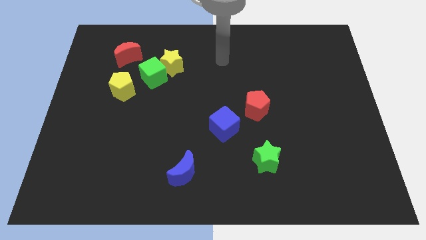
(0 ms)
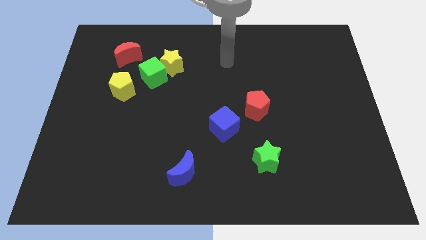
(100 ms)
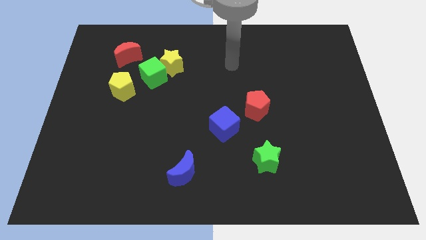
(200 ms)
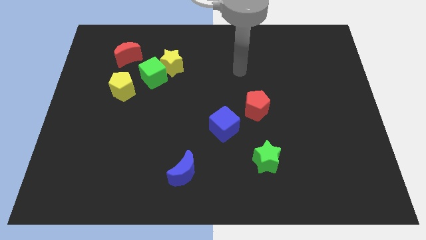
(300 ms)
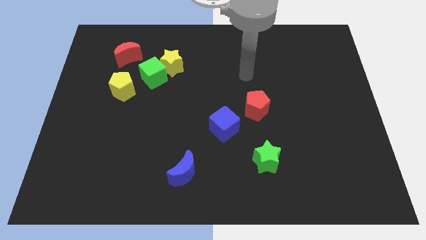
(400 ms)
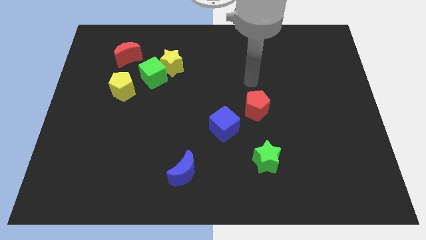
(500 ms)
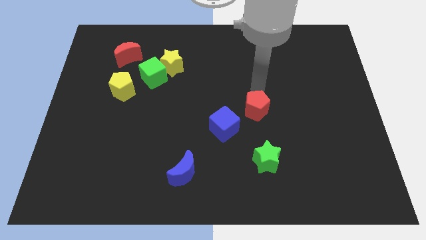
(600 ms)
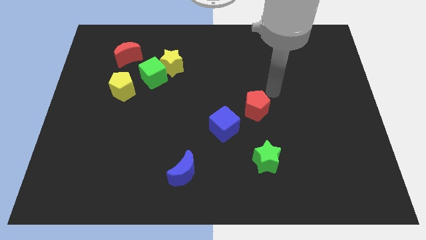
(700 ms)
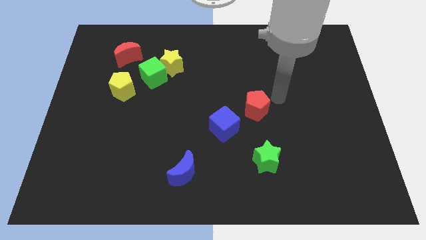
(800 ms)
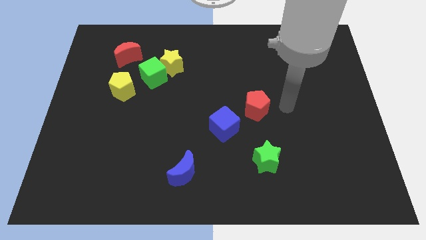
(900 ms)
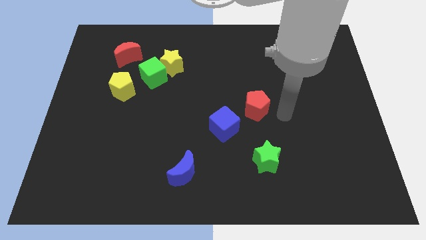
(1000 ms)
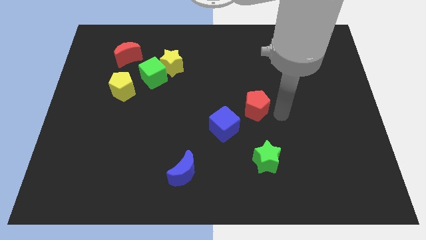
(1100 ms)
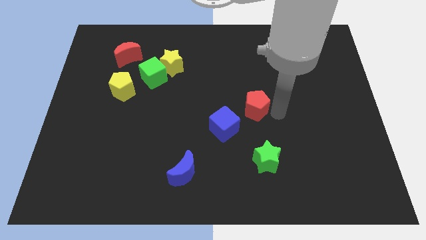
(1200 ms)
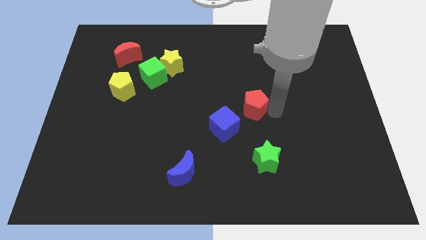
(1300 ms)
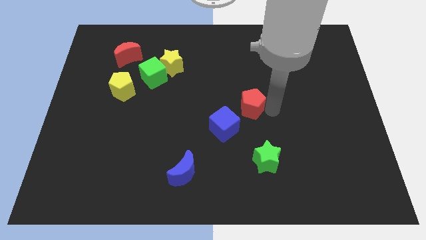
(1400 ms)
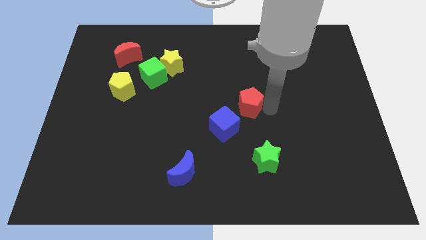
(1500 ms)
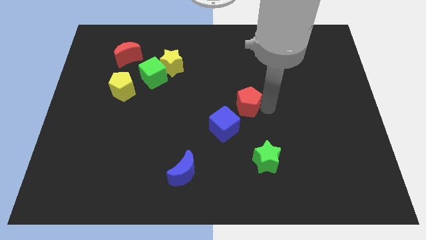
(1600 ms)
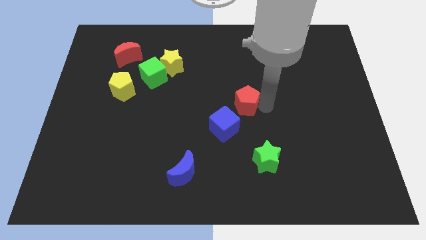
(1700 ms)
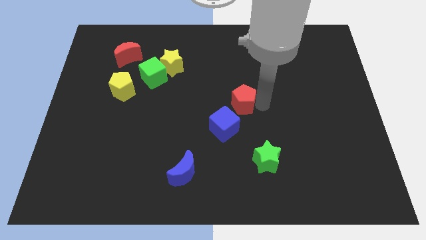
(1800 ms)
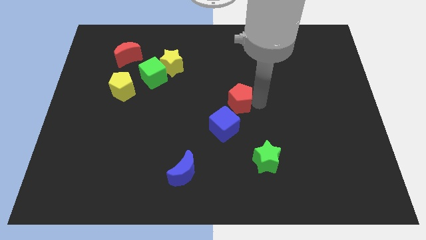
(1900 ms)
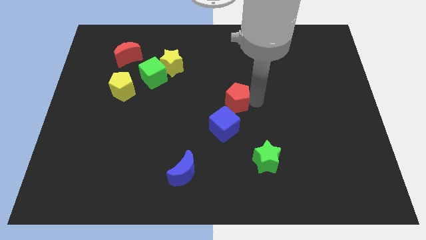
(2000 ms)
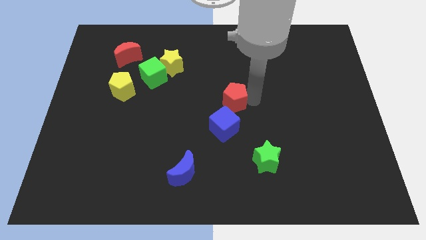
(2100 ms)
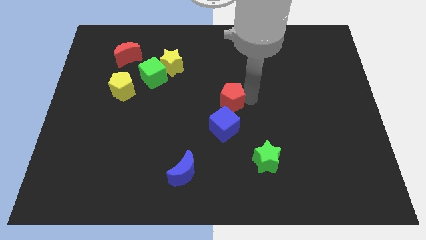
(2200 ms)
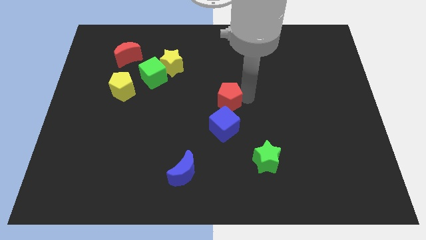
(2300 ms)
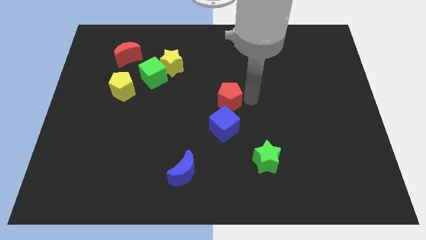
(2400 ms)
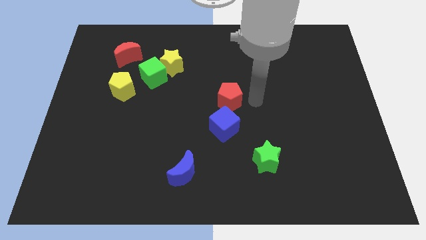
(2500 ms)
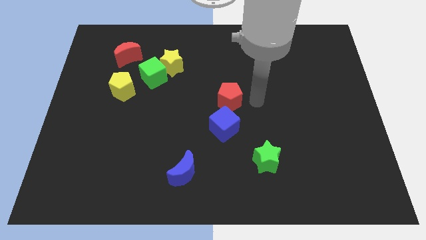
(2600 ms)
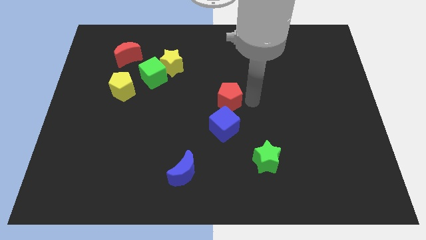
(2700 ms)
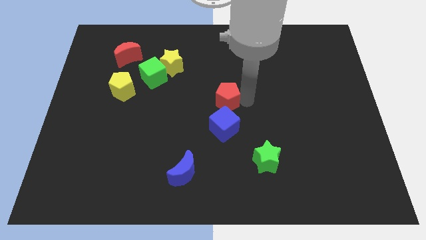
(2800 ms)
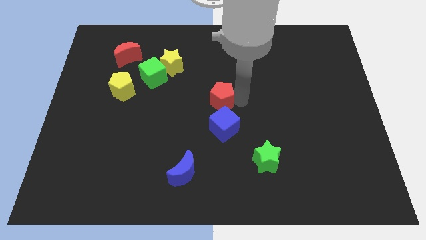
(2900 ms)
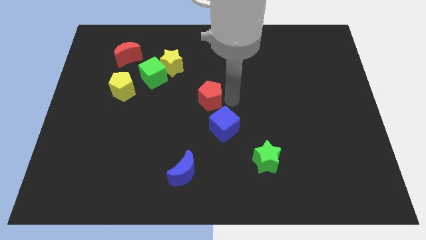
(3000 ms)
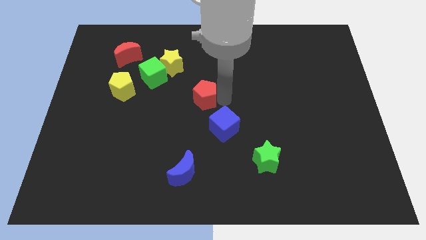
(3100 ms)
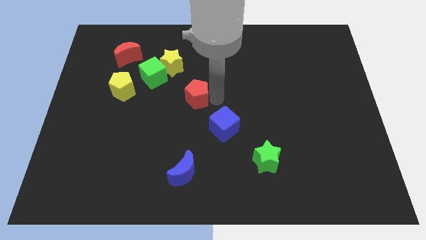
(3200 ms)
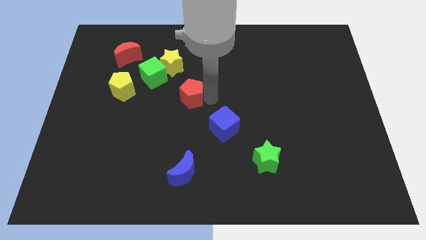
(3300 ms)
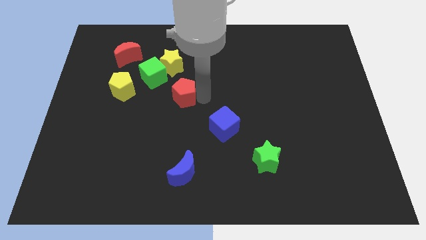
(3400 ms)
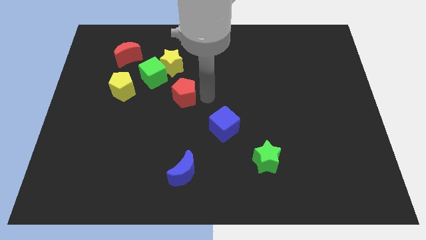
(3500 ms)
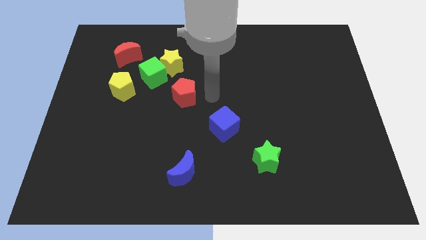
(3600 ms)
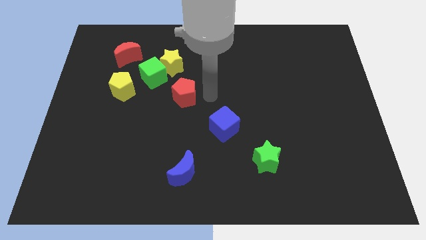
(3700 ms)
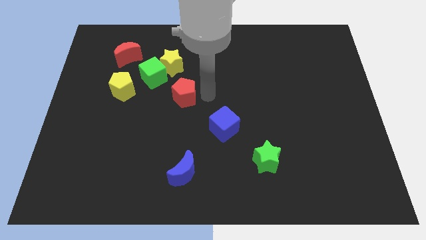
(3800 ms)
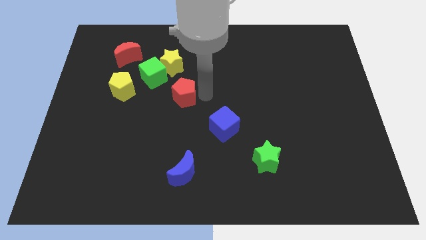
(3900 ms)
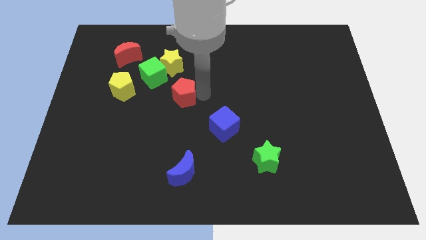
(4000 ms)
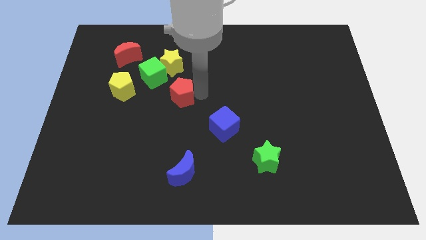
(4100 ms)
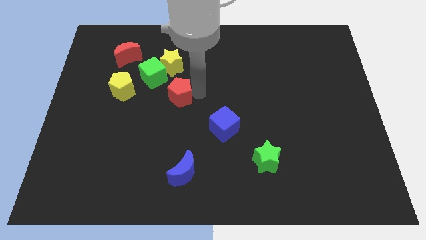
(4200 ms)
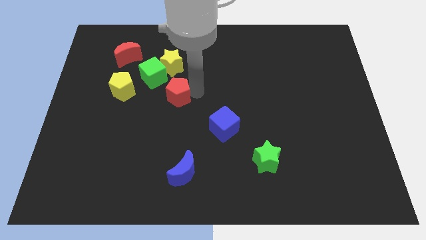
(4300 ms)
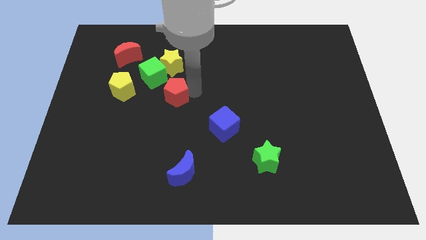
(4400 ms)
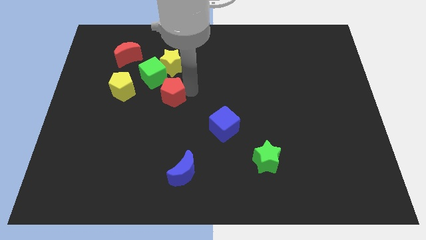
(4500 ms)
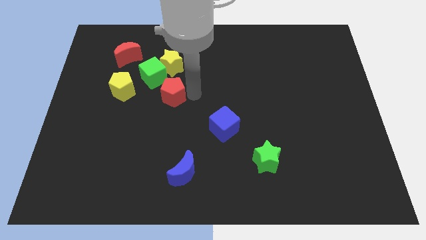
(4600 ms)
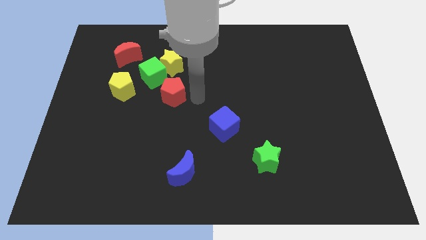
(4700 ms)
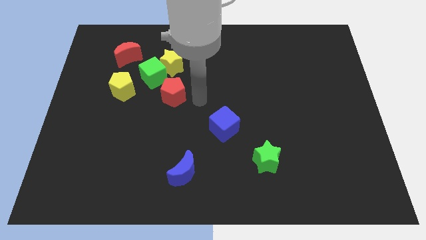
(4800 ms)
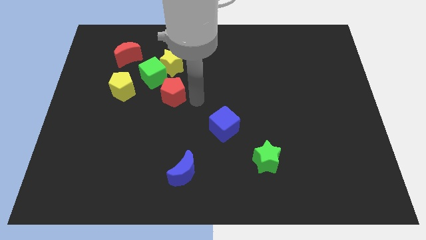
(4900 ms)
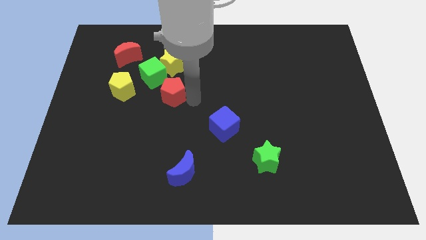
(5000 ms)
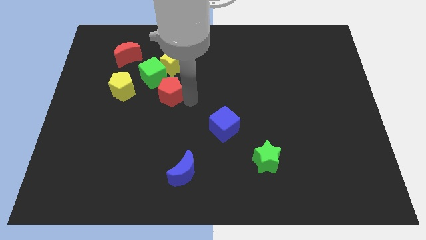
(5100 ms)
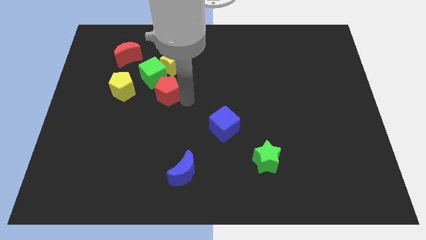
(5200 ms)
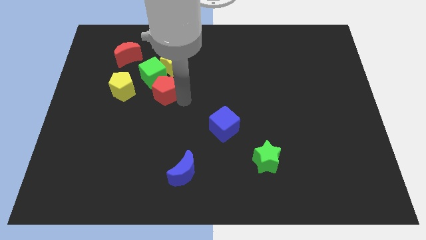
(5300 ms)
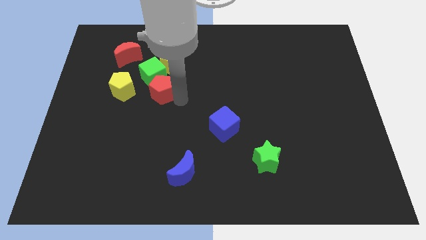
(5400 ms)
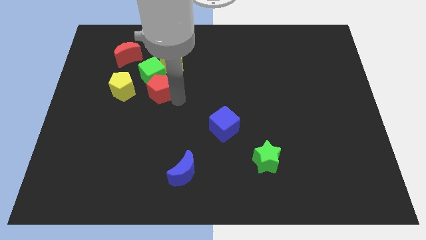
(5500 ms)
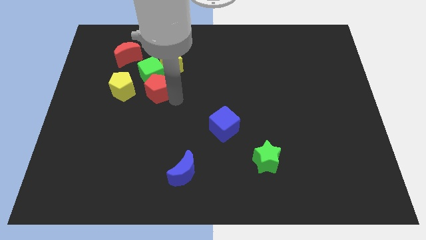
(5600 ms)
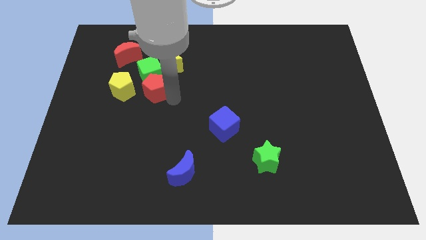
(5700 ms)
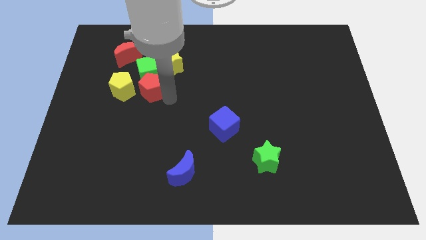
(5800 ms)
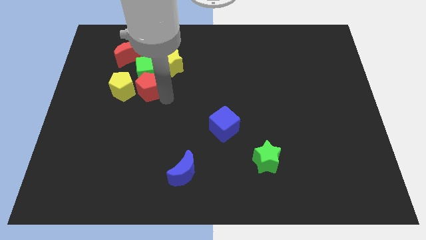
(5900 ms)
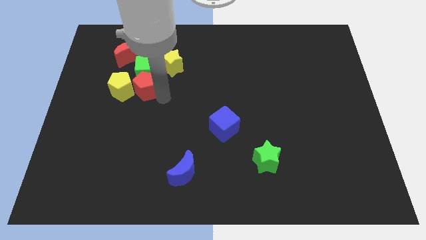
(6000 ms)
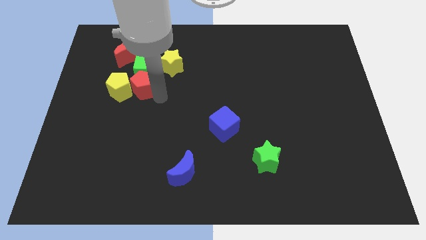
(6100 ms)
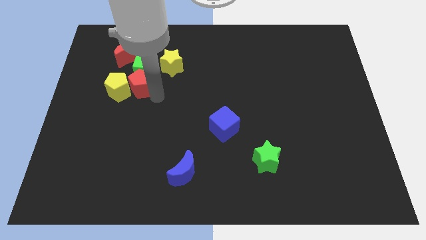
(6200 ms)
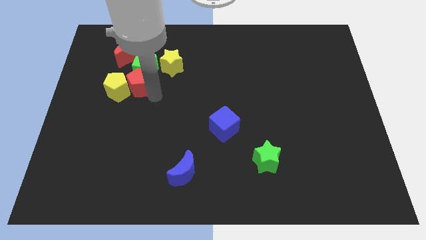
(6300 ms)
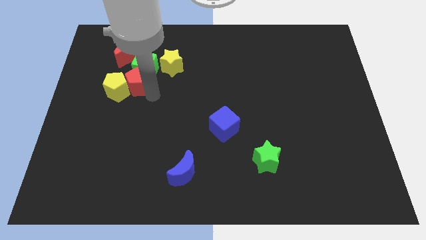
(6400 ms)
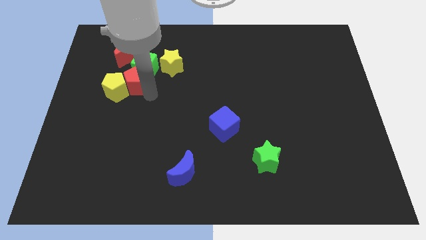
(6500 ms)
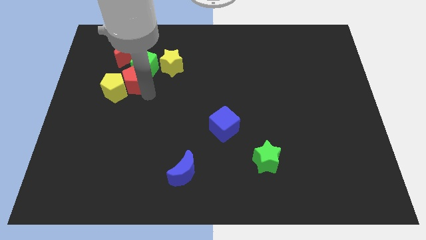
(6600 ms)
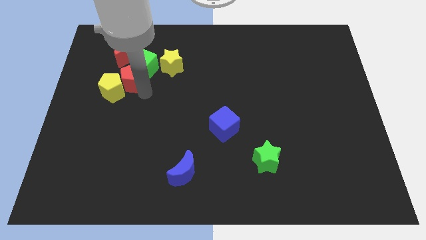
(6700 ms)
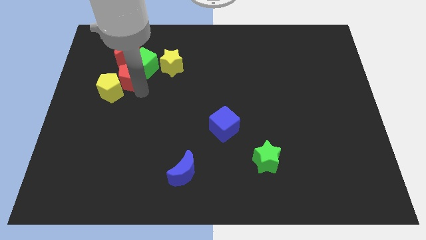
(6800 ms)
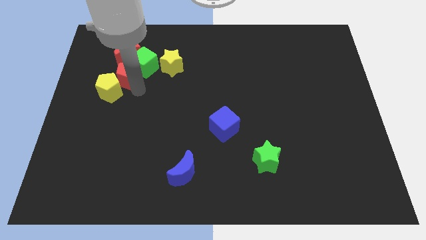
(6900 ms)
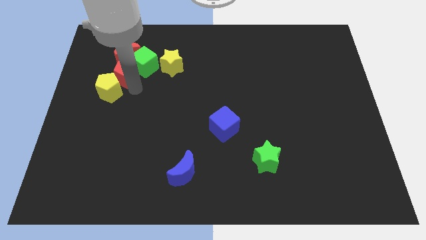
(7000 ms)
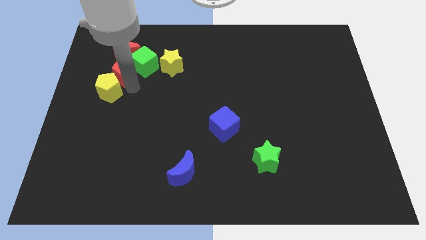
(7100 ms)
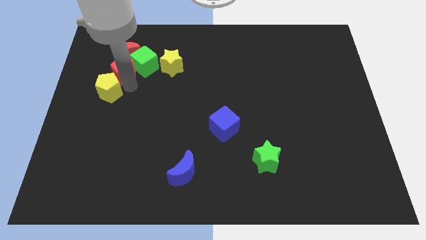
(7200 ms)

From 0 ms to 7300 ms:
move the red pentagon to the red moon
